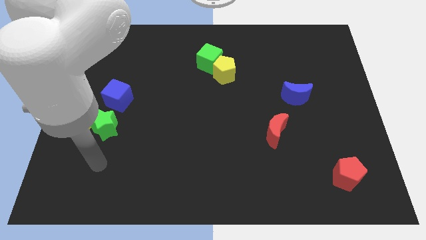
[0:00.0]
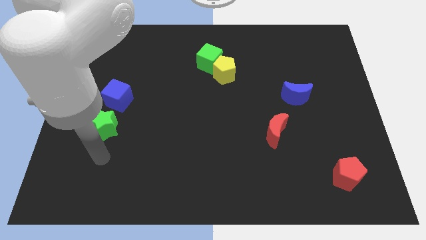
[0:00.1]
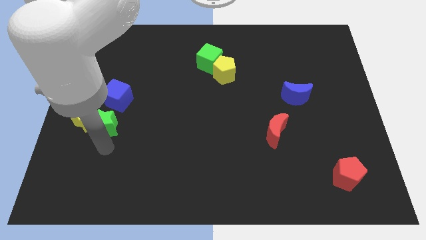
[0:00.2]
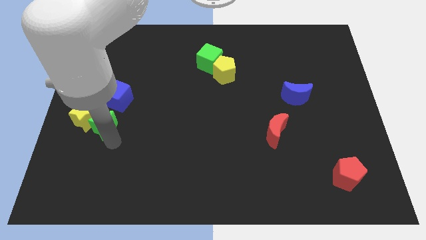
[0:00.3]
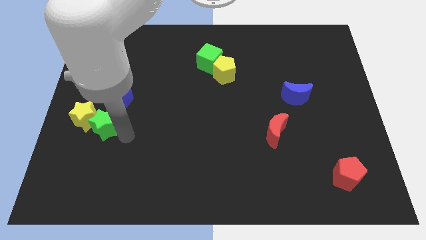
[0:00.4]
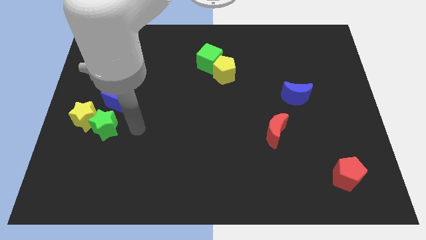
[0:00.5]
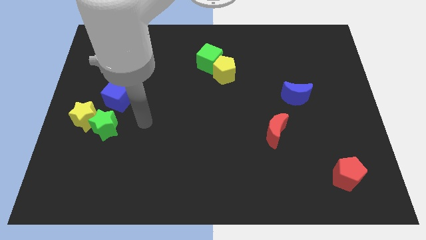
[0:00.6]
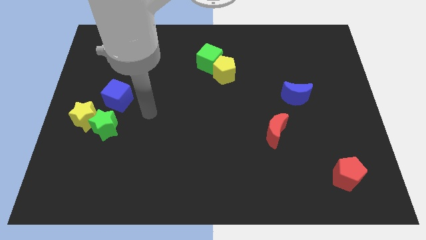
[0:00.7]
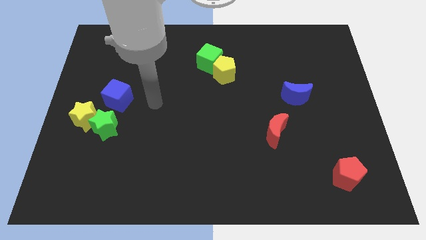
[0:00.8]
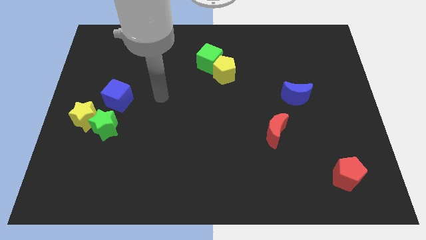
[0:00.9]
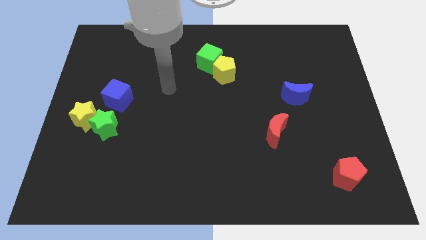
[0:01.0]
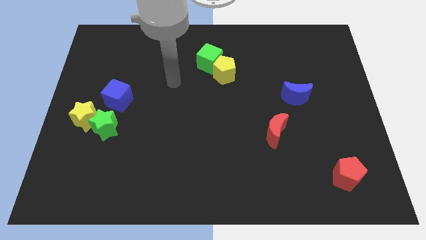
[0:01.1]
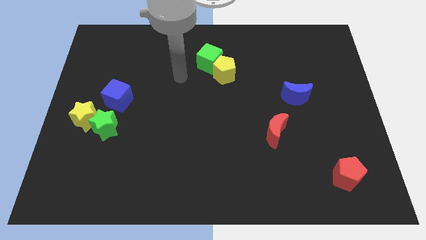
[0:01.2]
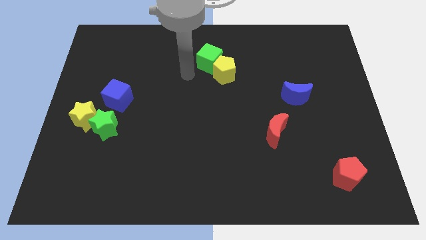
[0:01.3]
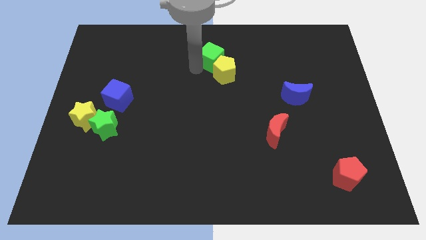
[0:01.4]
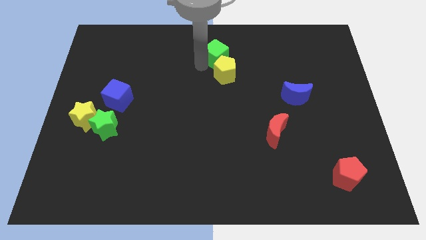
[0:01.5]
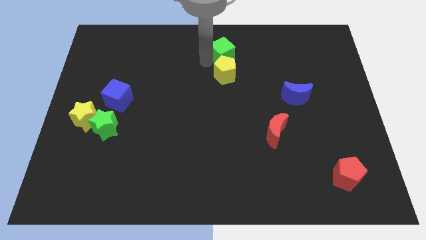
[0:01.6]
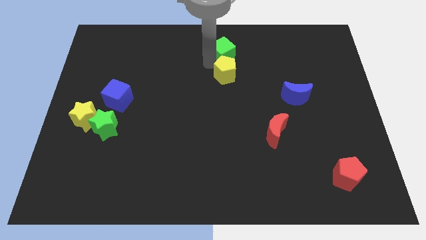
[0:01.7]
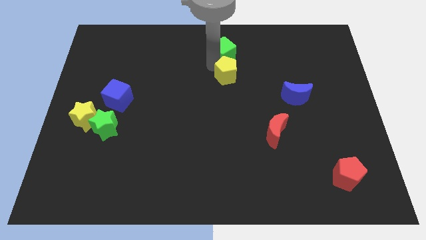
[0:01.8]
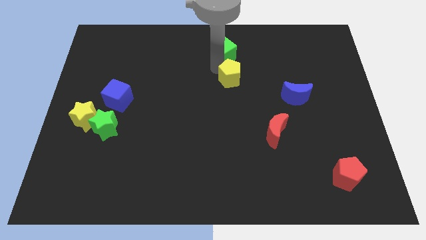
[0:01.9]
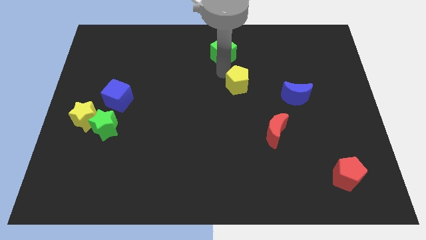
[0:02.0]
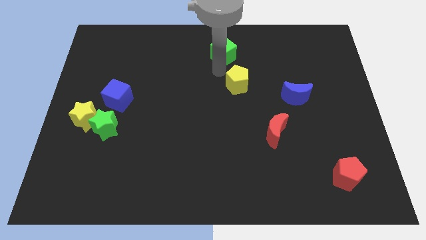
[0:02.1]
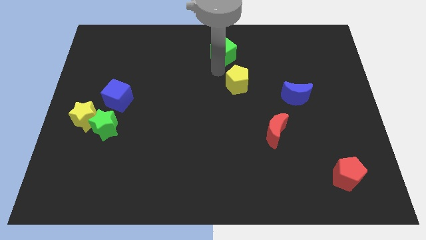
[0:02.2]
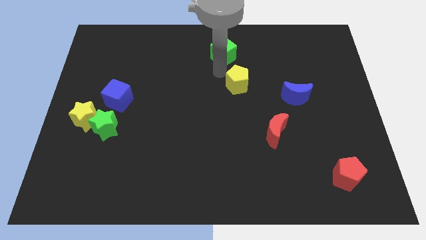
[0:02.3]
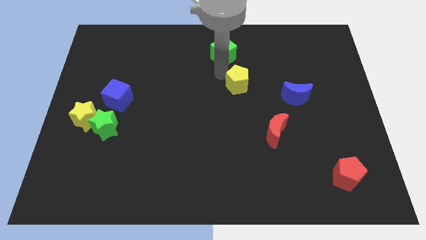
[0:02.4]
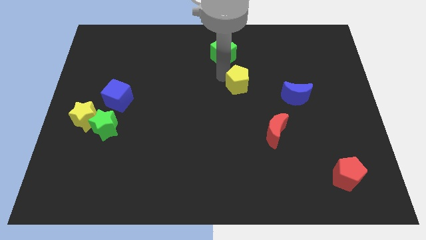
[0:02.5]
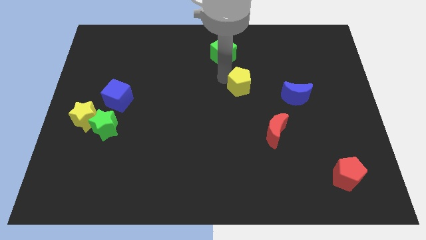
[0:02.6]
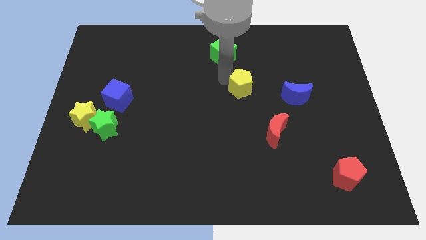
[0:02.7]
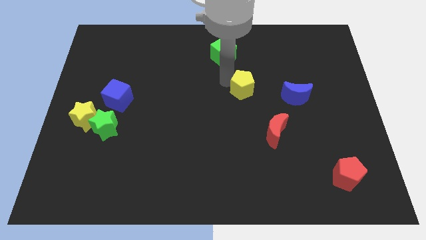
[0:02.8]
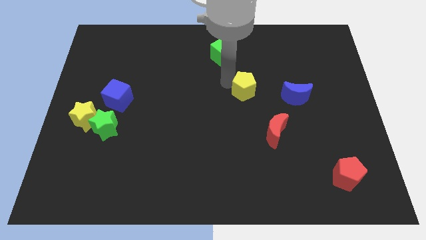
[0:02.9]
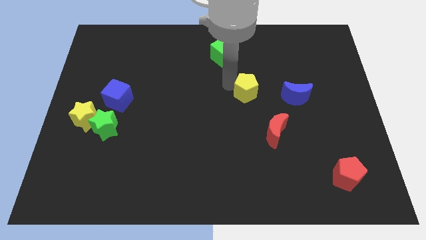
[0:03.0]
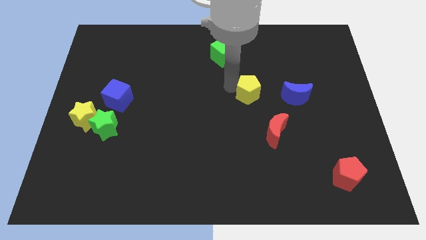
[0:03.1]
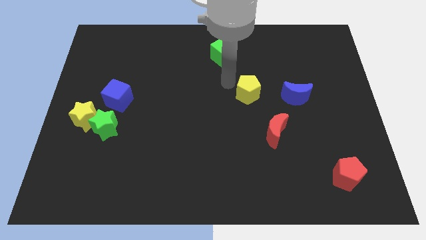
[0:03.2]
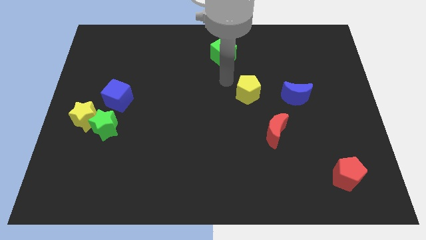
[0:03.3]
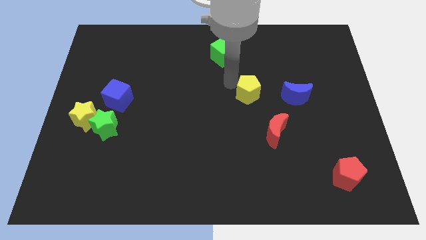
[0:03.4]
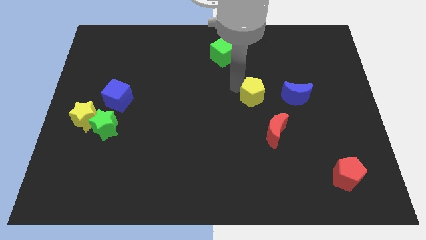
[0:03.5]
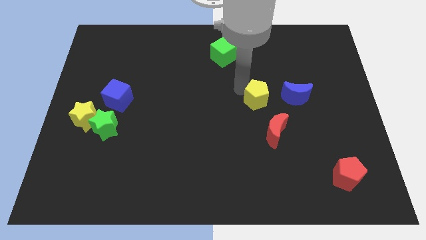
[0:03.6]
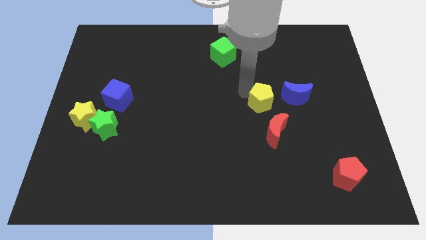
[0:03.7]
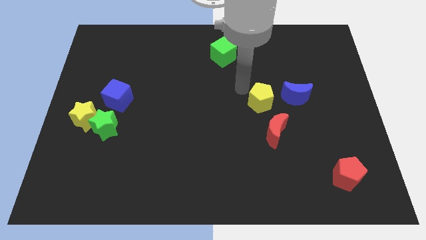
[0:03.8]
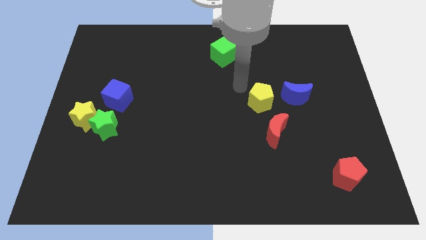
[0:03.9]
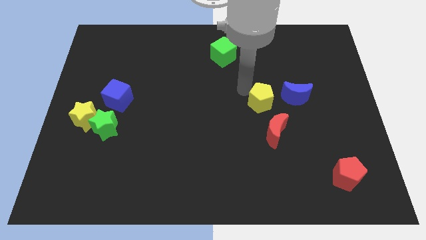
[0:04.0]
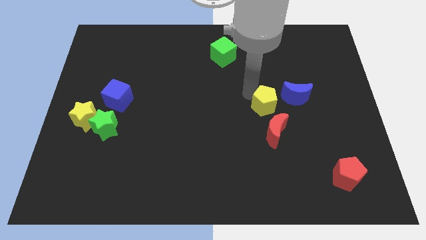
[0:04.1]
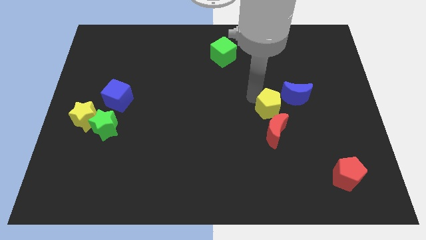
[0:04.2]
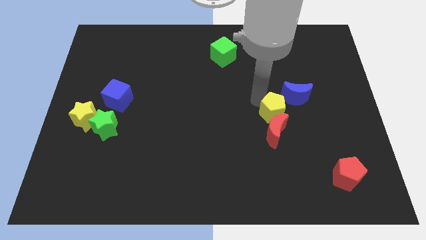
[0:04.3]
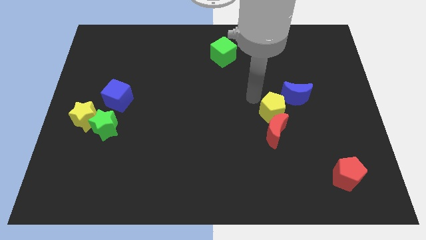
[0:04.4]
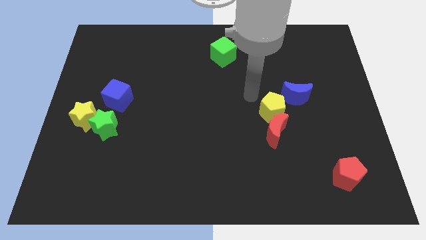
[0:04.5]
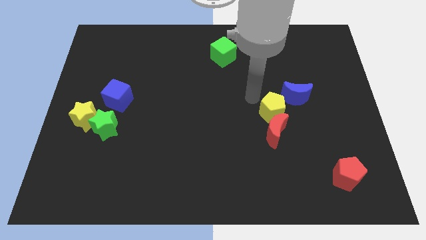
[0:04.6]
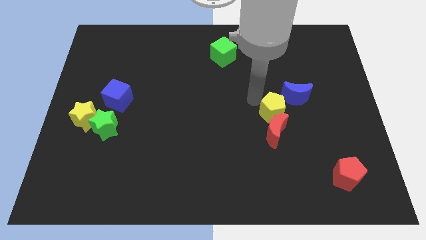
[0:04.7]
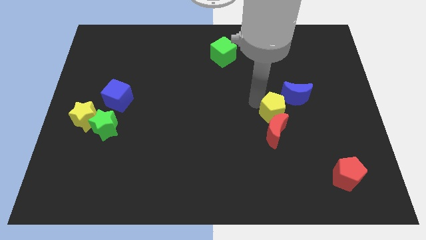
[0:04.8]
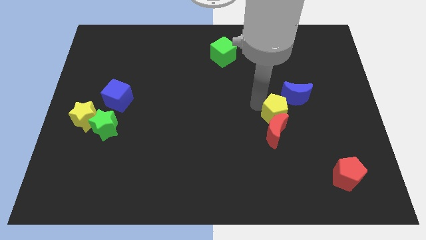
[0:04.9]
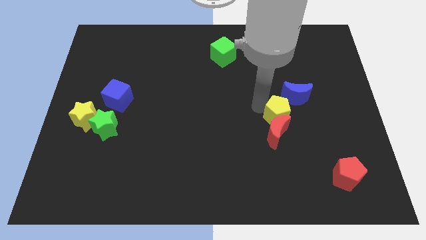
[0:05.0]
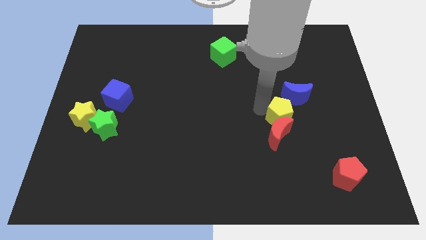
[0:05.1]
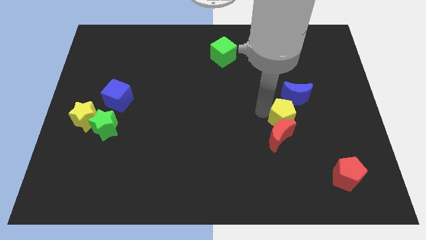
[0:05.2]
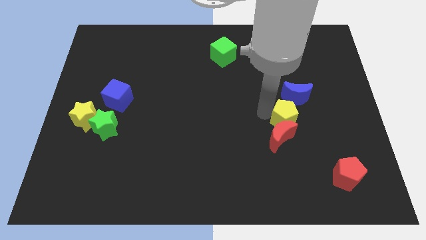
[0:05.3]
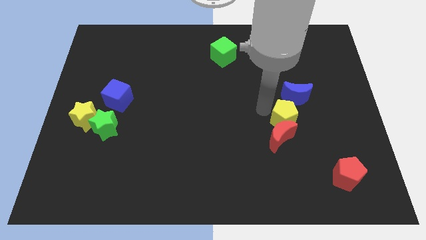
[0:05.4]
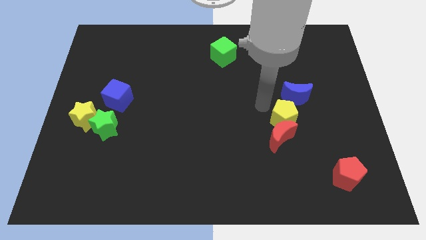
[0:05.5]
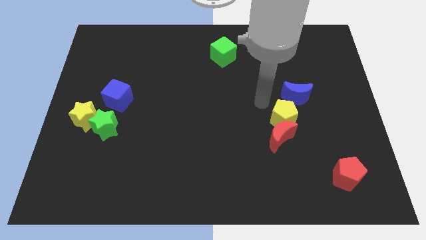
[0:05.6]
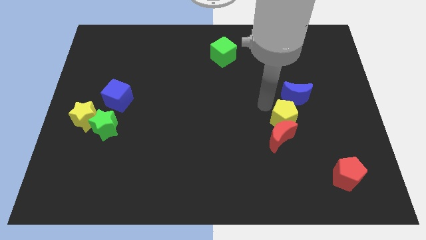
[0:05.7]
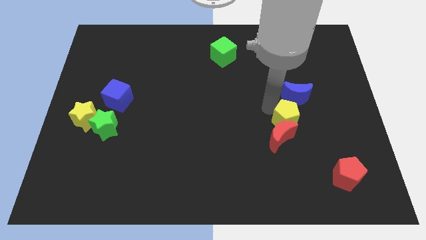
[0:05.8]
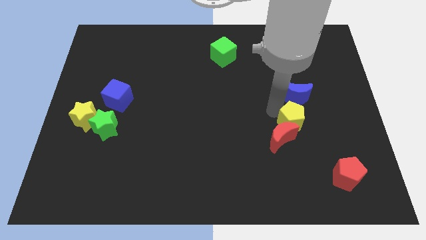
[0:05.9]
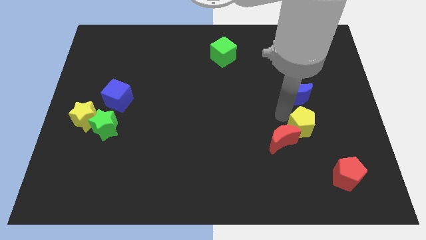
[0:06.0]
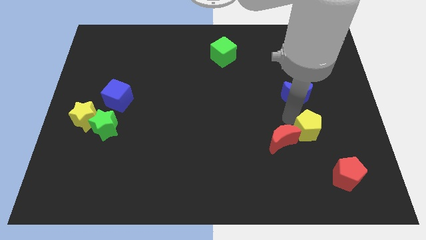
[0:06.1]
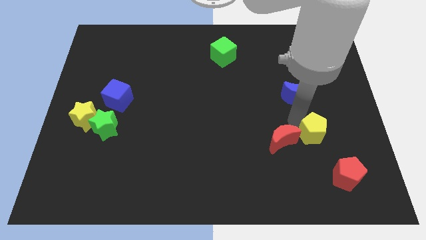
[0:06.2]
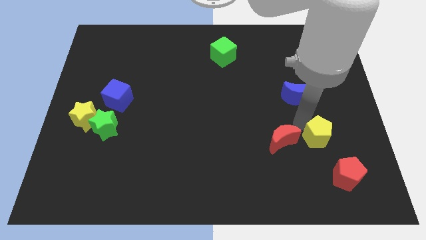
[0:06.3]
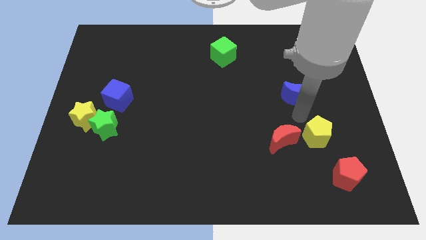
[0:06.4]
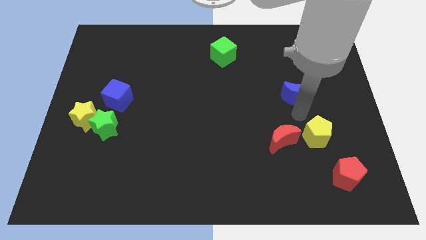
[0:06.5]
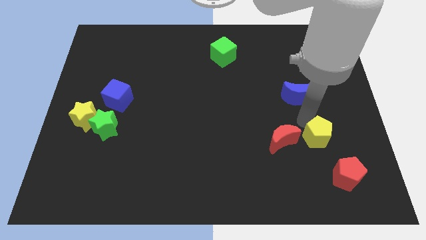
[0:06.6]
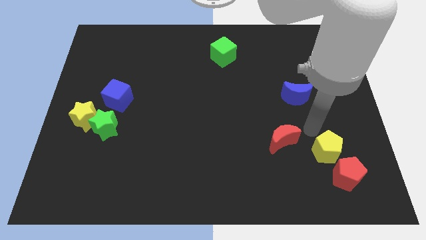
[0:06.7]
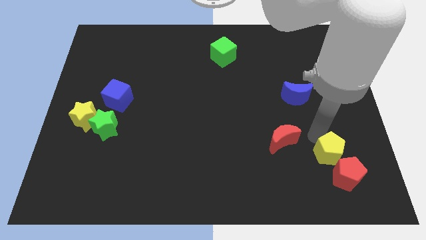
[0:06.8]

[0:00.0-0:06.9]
put the yellow pentagon close to the red pentagon
